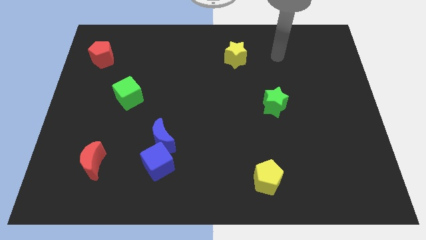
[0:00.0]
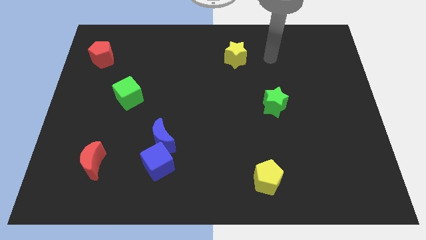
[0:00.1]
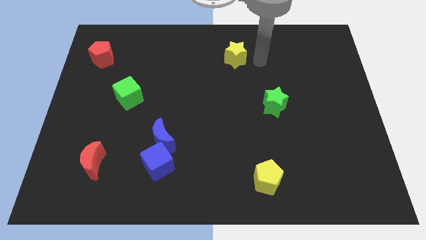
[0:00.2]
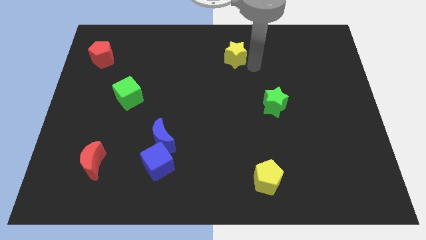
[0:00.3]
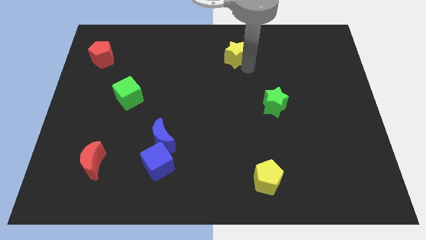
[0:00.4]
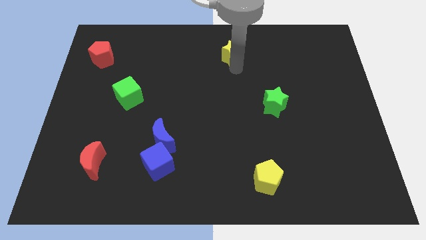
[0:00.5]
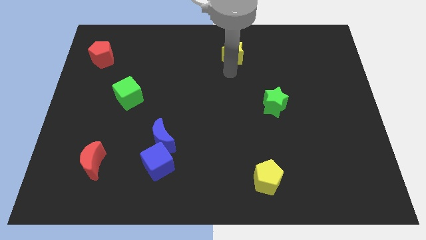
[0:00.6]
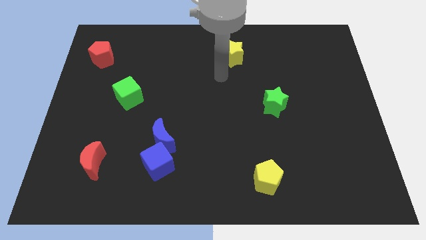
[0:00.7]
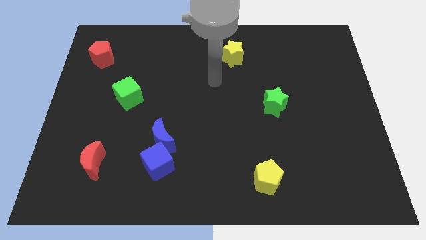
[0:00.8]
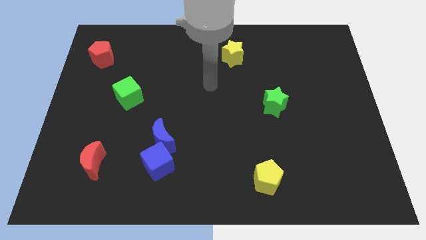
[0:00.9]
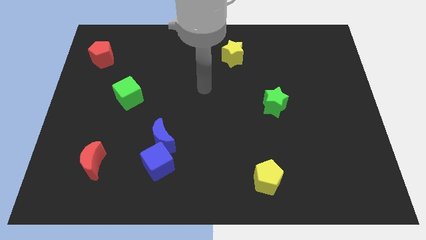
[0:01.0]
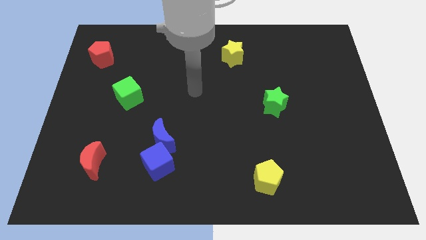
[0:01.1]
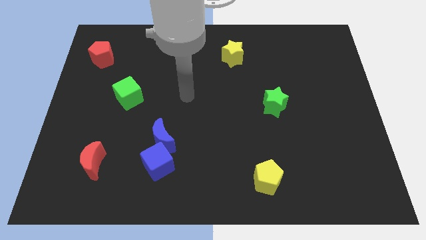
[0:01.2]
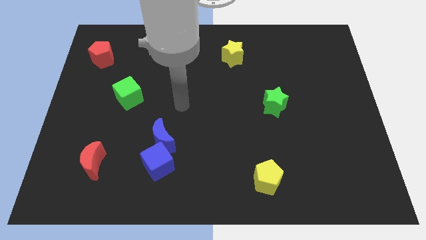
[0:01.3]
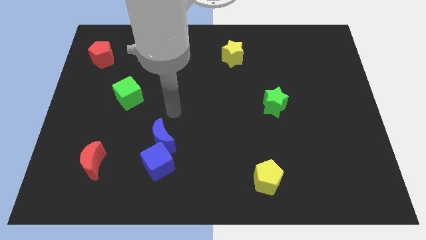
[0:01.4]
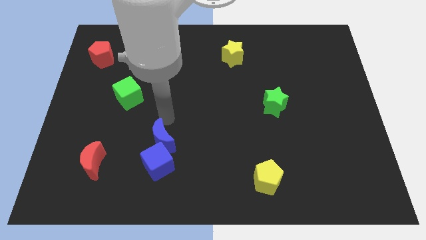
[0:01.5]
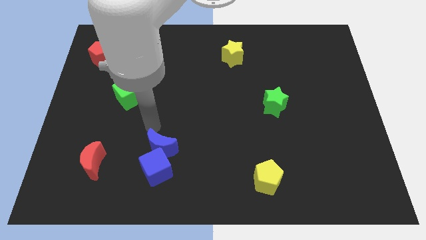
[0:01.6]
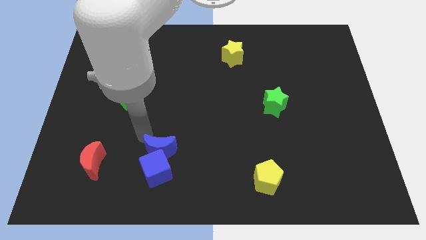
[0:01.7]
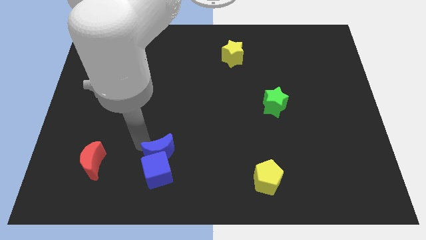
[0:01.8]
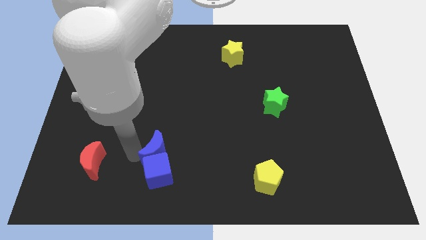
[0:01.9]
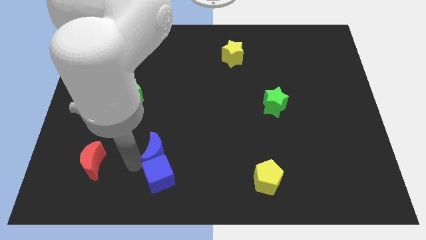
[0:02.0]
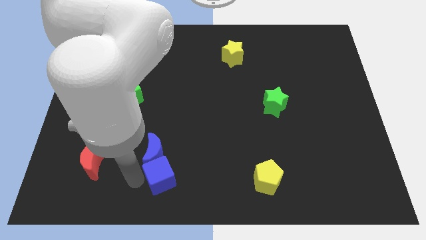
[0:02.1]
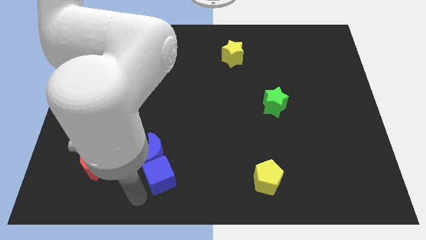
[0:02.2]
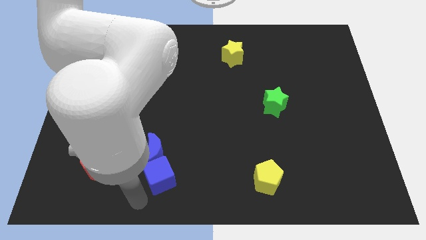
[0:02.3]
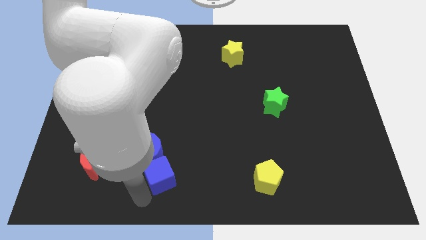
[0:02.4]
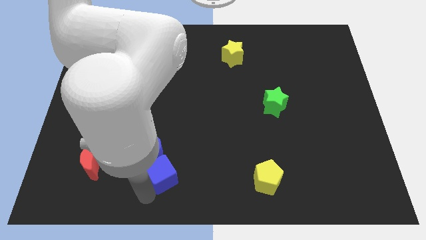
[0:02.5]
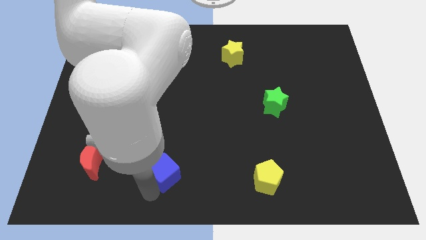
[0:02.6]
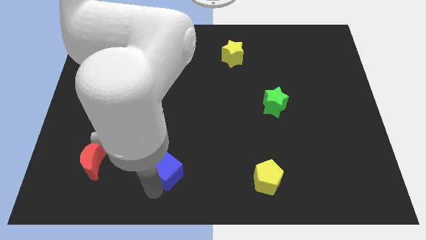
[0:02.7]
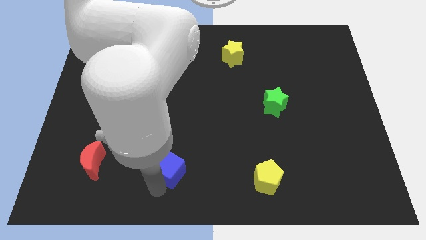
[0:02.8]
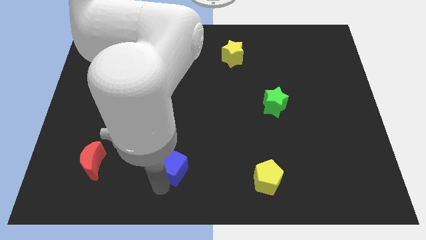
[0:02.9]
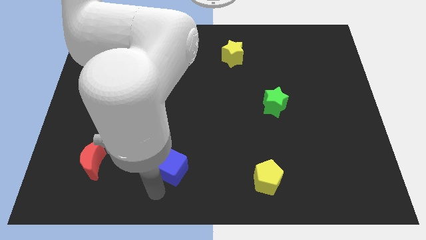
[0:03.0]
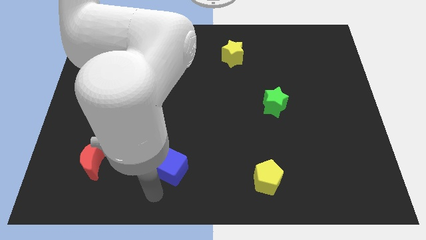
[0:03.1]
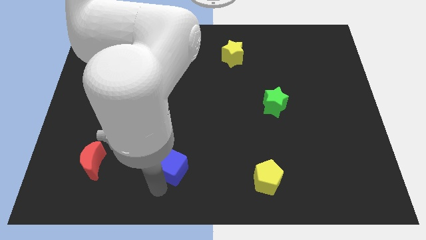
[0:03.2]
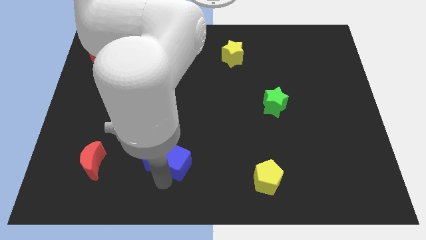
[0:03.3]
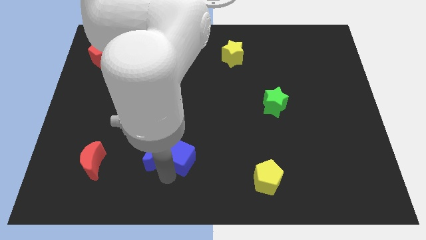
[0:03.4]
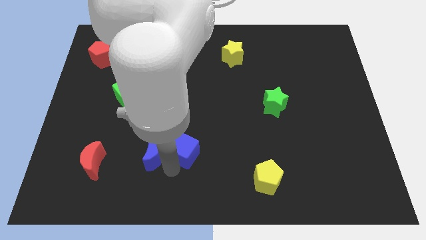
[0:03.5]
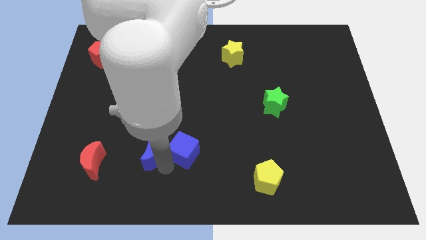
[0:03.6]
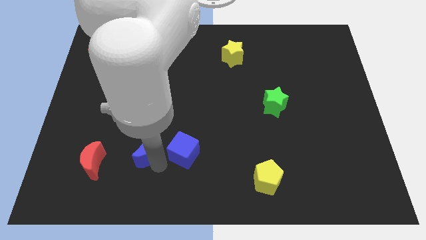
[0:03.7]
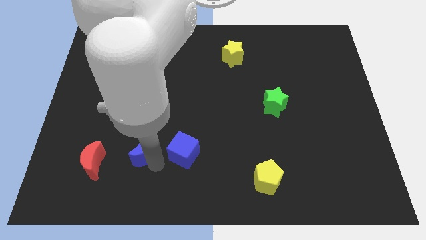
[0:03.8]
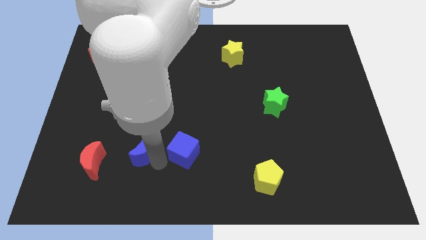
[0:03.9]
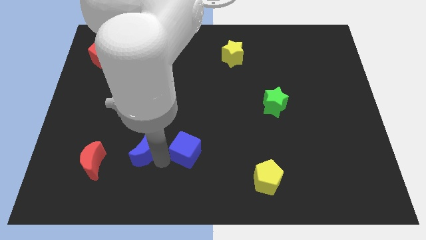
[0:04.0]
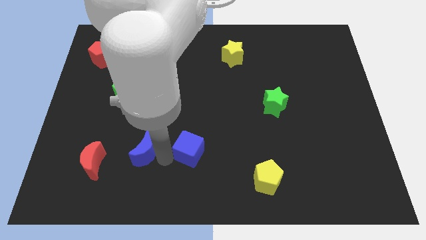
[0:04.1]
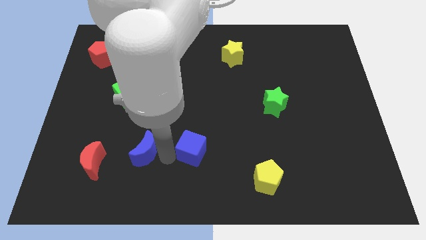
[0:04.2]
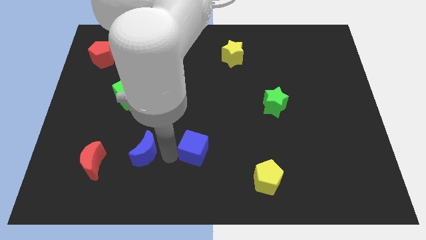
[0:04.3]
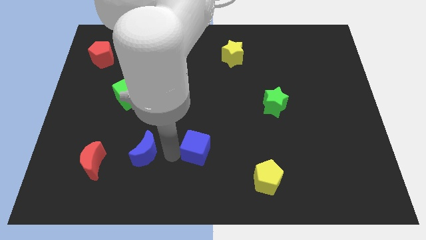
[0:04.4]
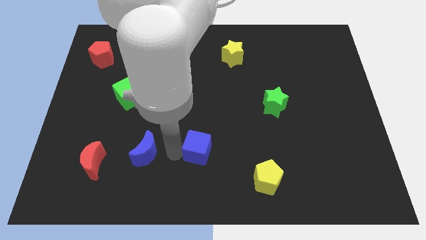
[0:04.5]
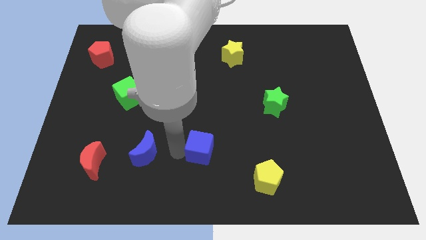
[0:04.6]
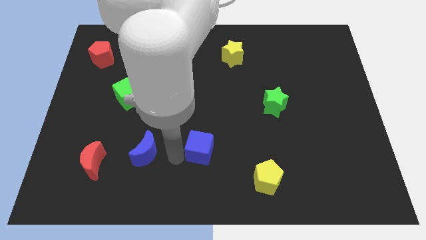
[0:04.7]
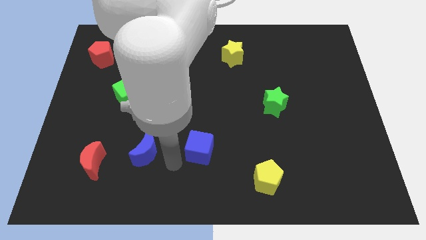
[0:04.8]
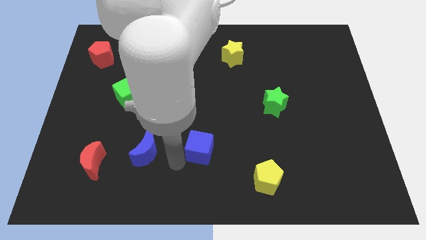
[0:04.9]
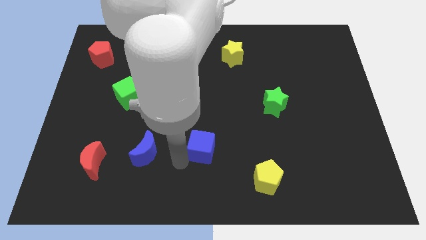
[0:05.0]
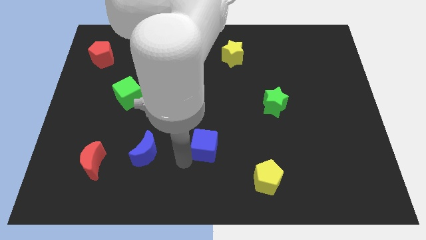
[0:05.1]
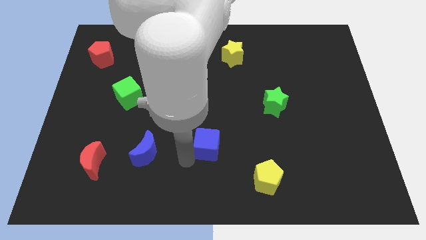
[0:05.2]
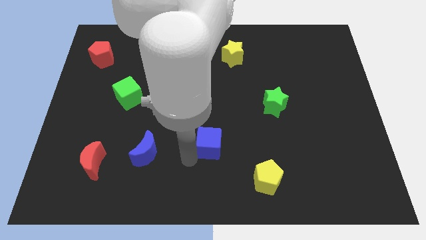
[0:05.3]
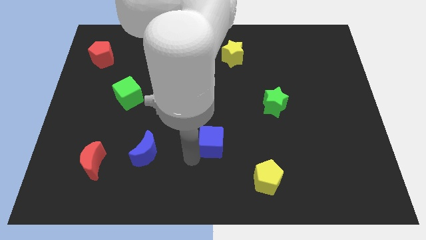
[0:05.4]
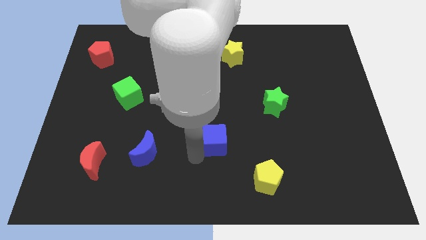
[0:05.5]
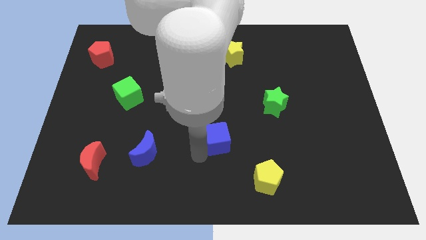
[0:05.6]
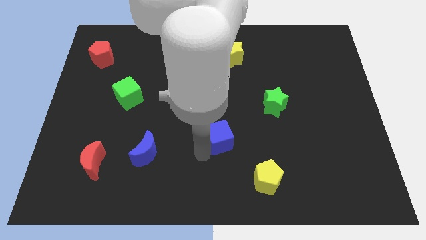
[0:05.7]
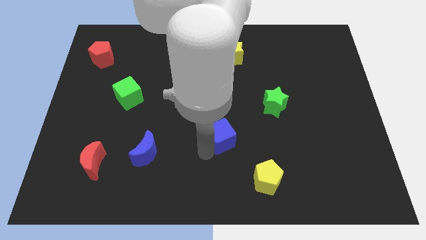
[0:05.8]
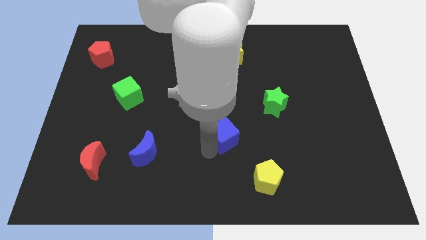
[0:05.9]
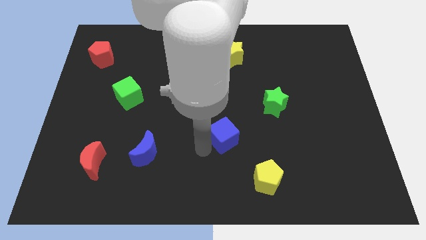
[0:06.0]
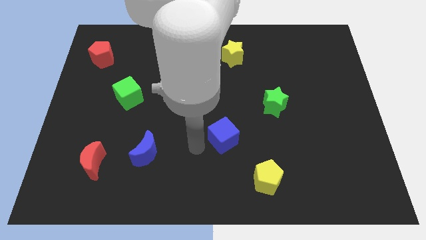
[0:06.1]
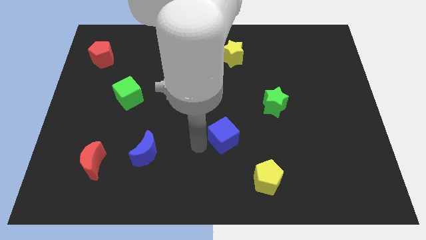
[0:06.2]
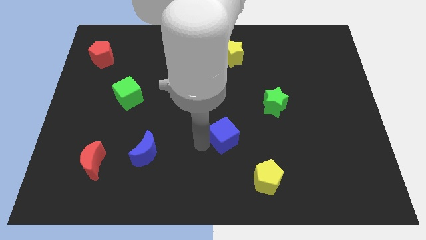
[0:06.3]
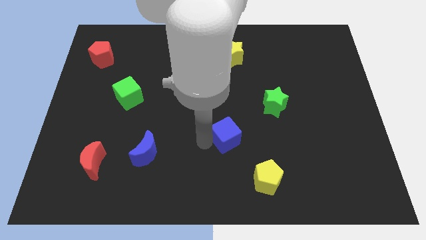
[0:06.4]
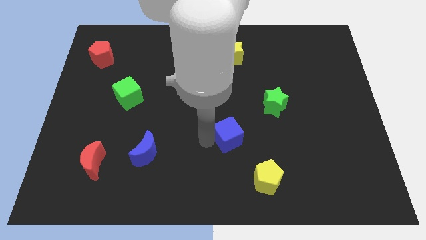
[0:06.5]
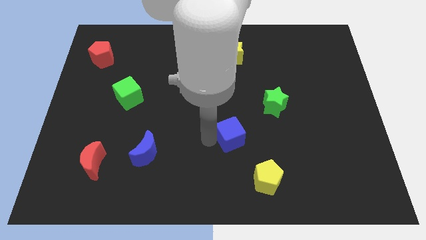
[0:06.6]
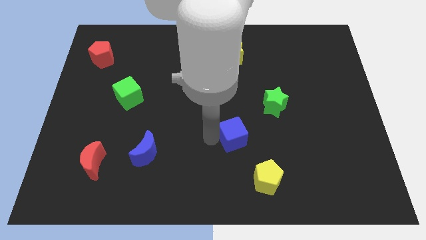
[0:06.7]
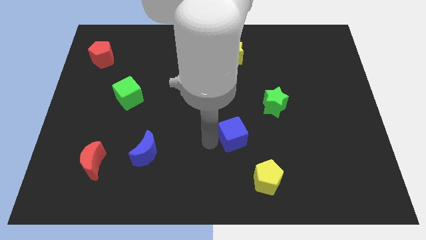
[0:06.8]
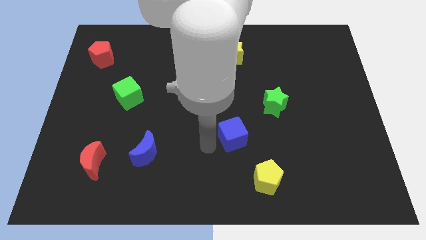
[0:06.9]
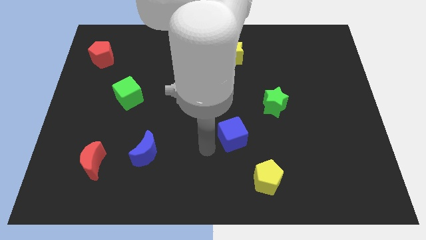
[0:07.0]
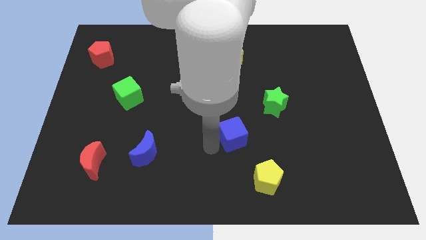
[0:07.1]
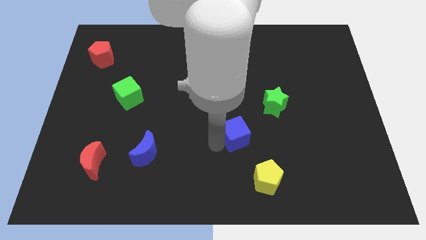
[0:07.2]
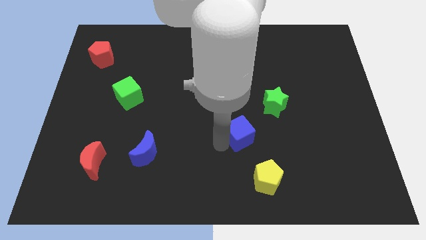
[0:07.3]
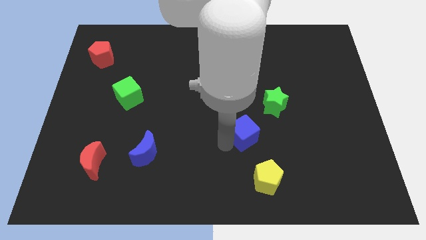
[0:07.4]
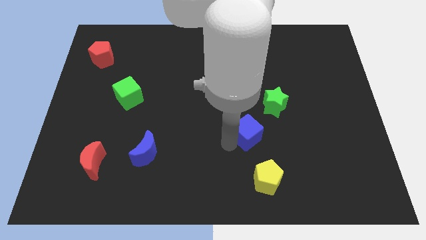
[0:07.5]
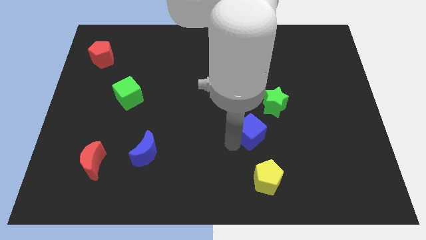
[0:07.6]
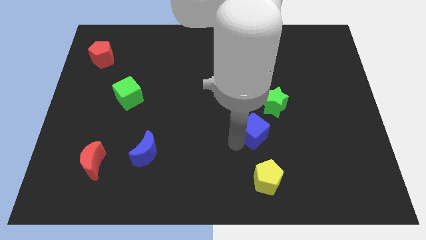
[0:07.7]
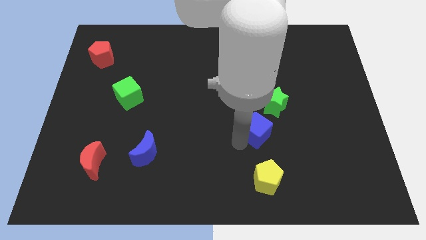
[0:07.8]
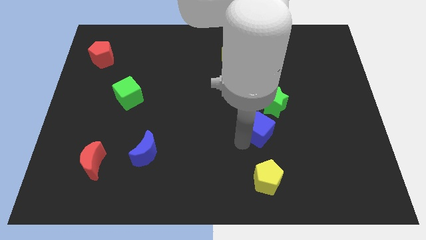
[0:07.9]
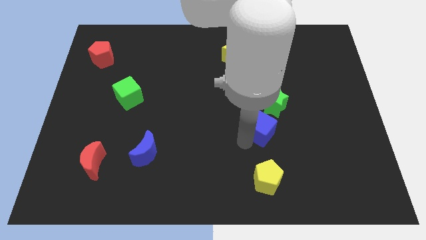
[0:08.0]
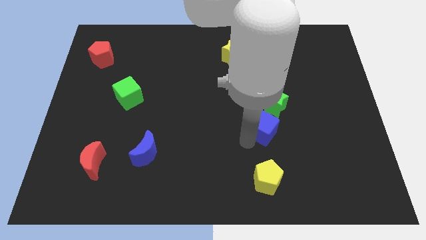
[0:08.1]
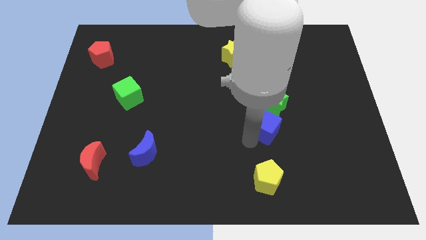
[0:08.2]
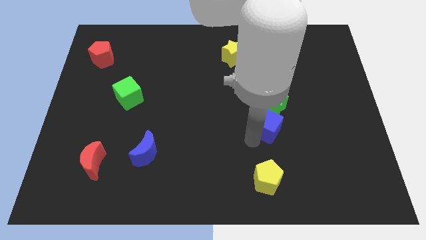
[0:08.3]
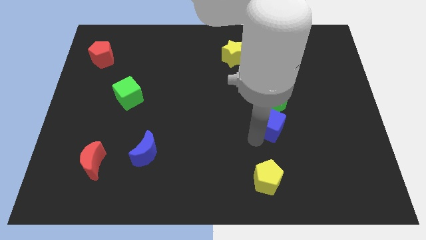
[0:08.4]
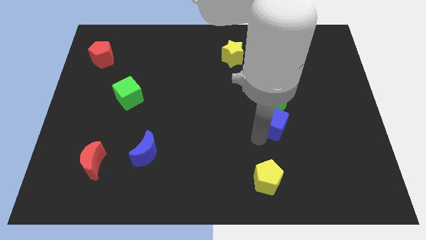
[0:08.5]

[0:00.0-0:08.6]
slide the blue cube next to the green star
